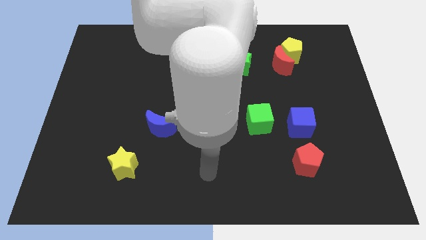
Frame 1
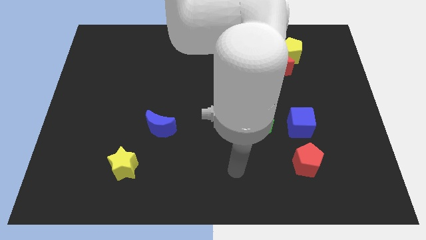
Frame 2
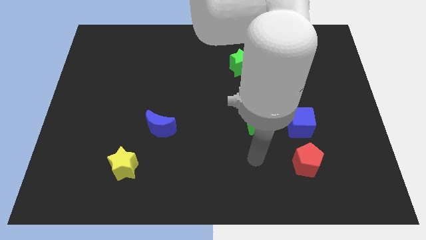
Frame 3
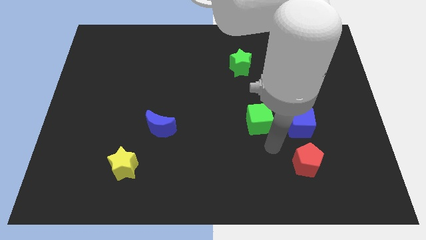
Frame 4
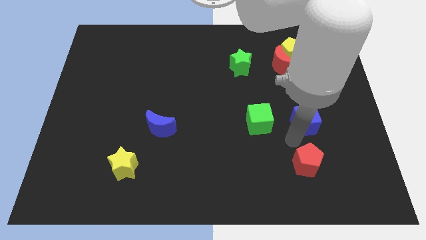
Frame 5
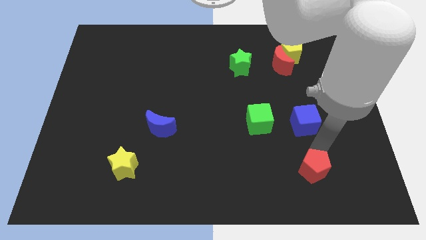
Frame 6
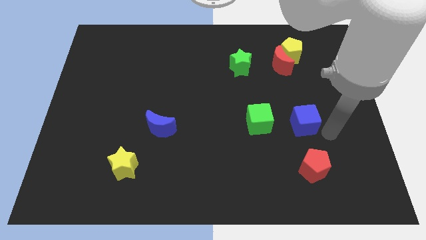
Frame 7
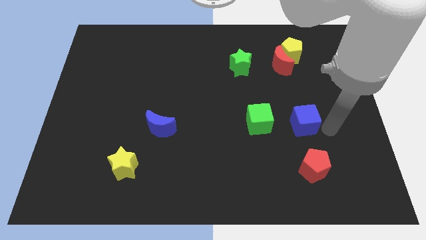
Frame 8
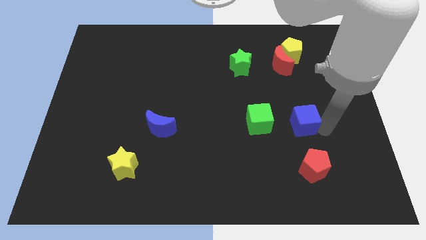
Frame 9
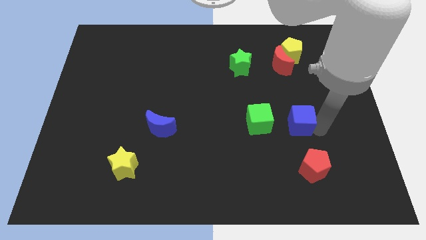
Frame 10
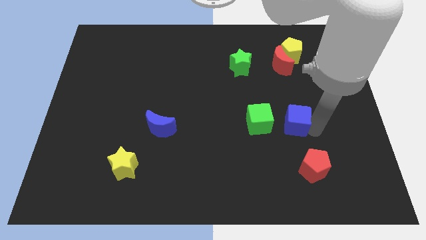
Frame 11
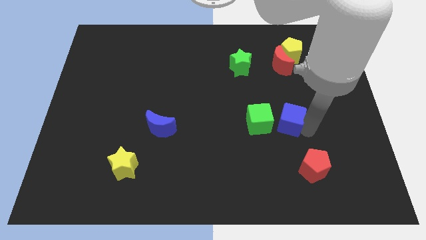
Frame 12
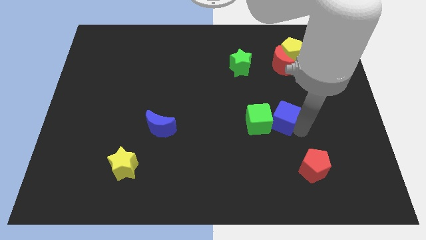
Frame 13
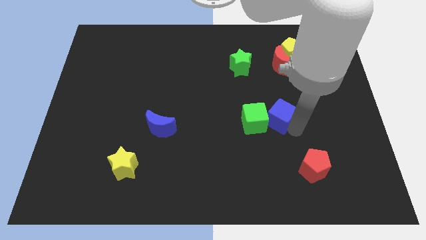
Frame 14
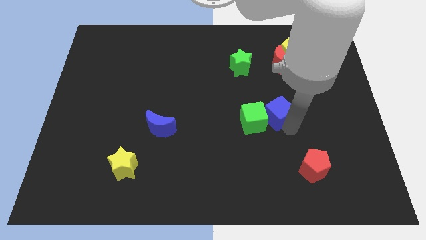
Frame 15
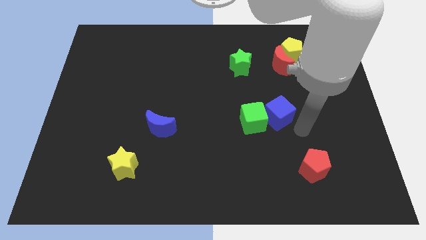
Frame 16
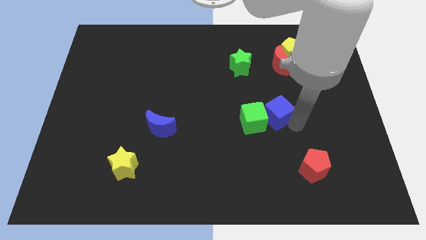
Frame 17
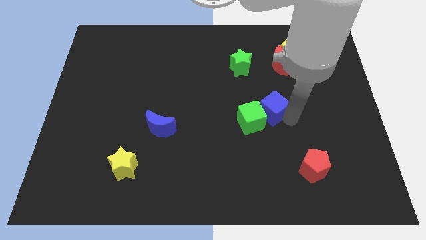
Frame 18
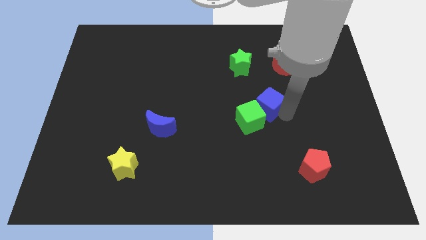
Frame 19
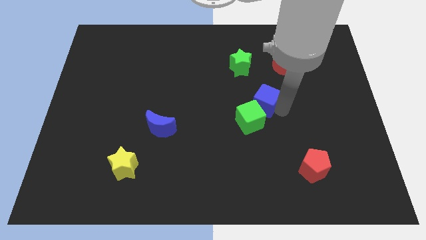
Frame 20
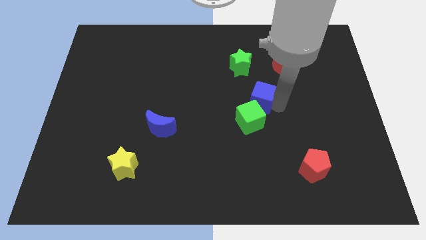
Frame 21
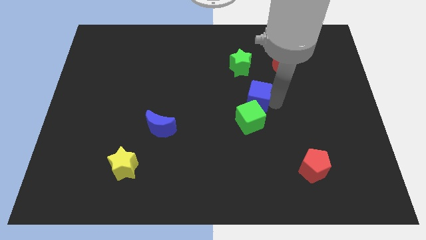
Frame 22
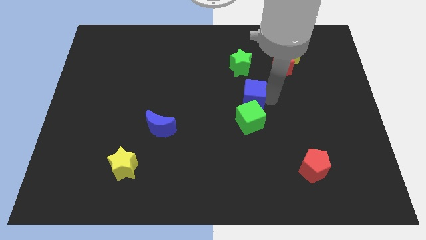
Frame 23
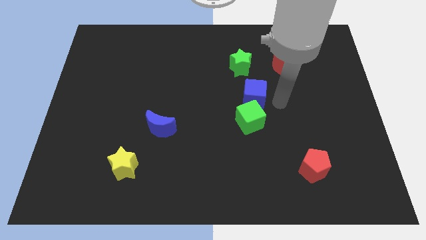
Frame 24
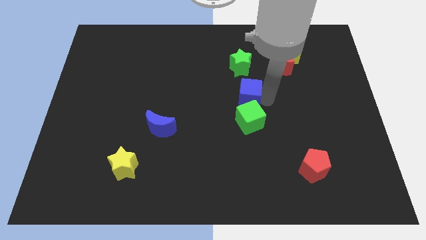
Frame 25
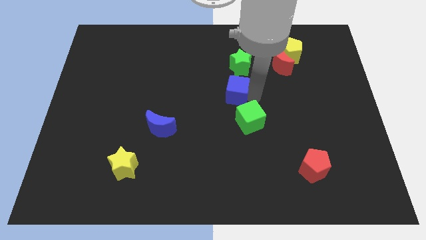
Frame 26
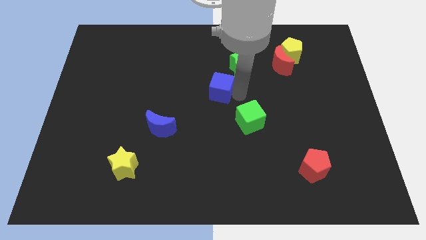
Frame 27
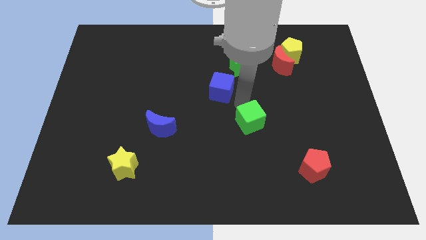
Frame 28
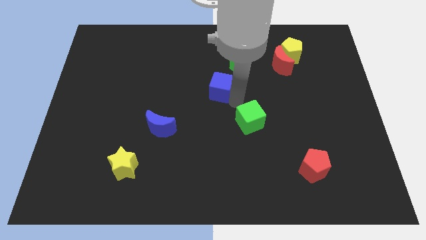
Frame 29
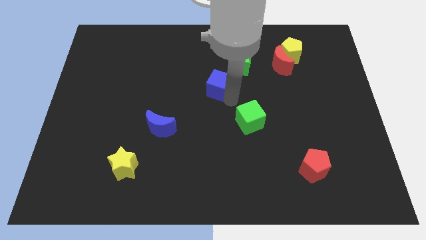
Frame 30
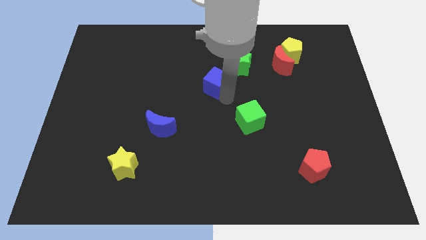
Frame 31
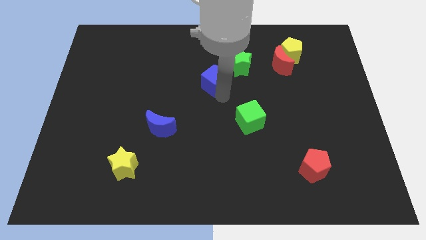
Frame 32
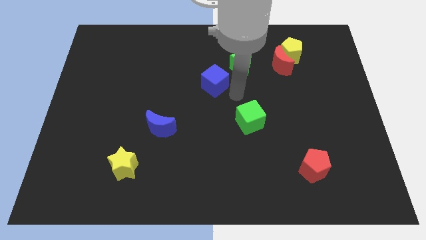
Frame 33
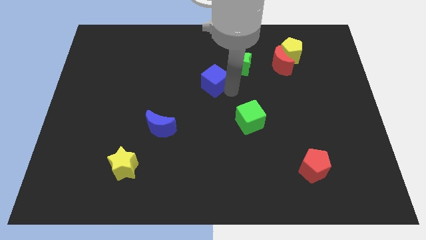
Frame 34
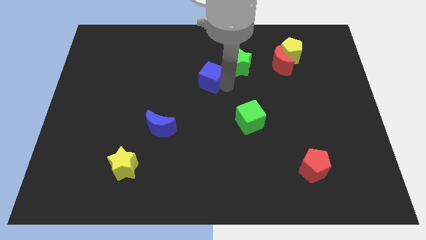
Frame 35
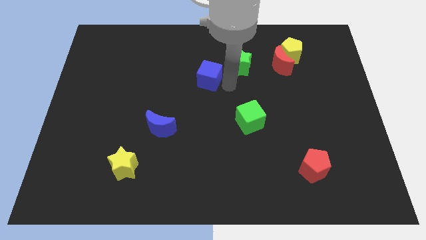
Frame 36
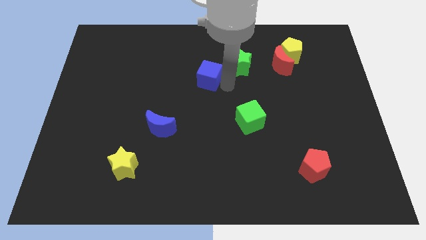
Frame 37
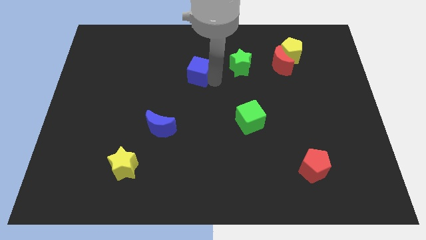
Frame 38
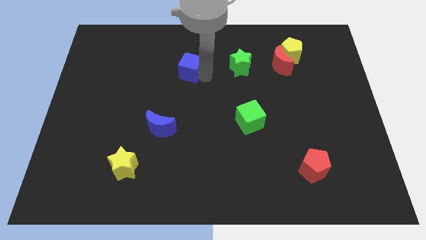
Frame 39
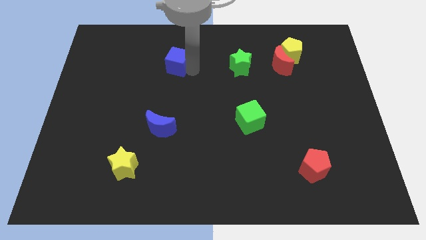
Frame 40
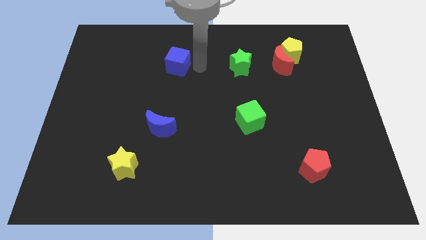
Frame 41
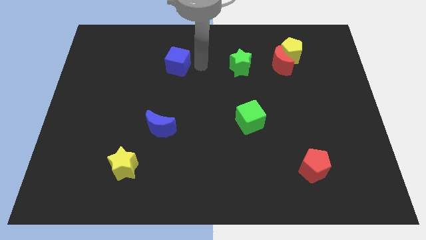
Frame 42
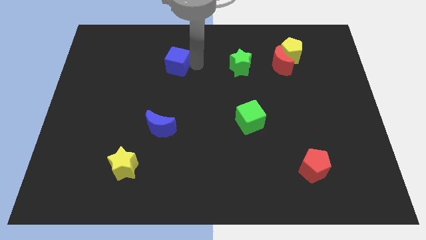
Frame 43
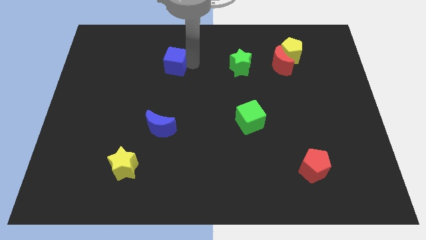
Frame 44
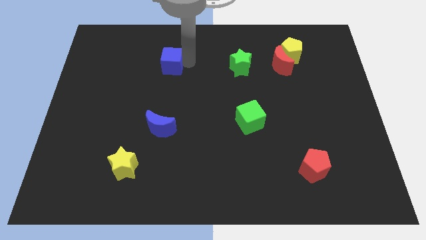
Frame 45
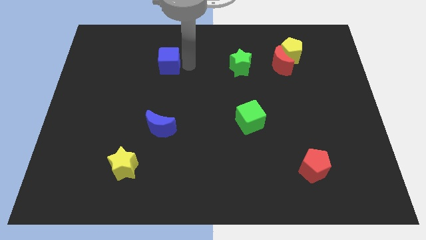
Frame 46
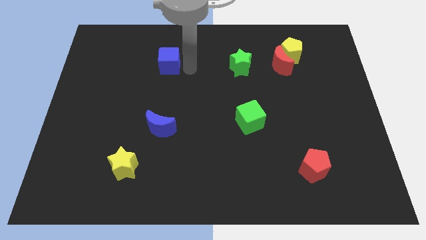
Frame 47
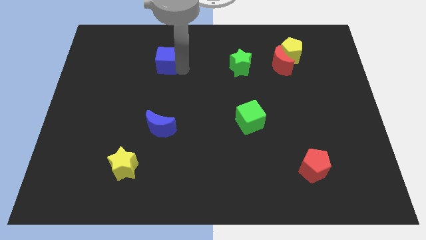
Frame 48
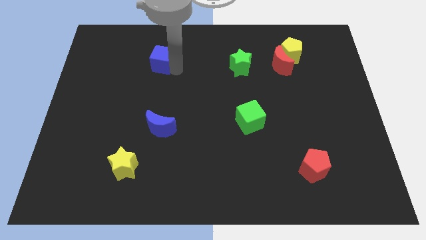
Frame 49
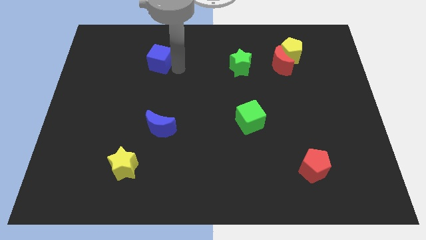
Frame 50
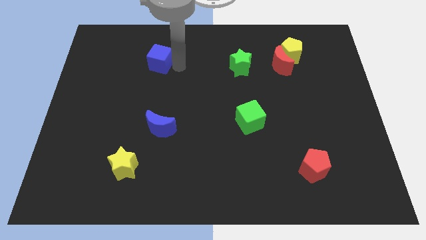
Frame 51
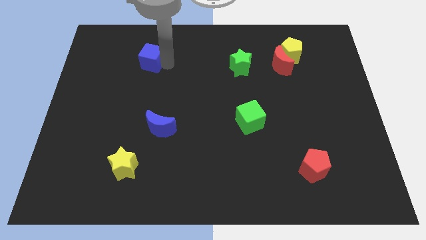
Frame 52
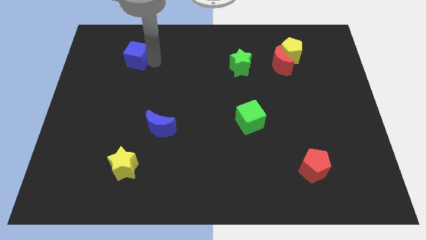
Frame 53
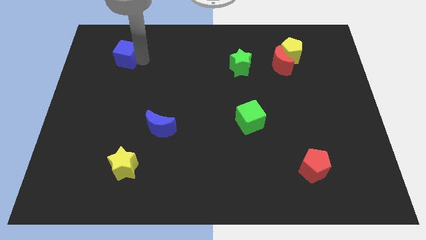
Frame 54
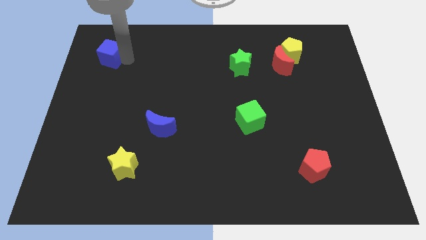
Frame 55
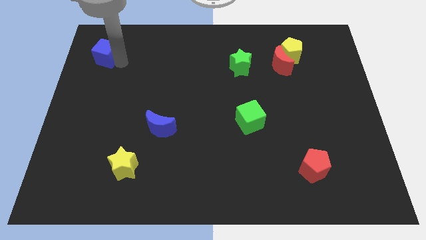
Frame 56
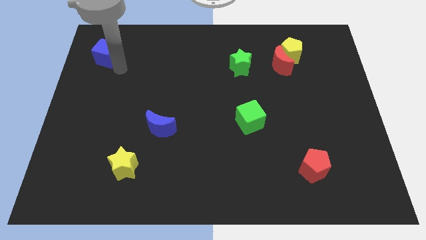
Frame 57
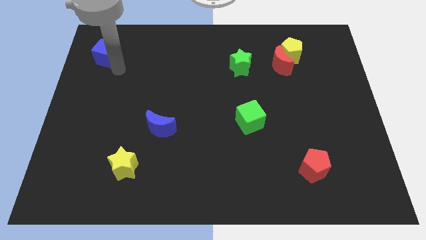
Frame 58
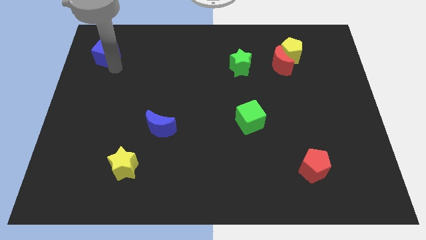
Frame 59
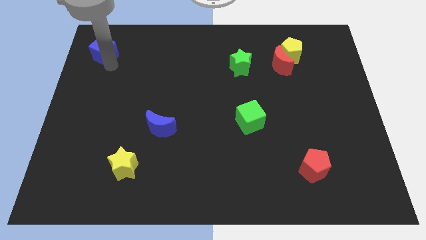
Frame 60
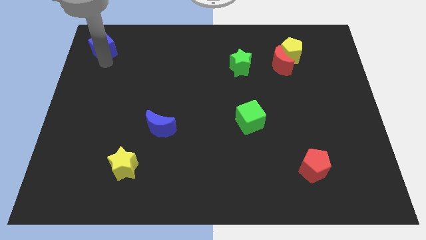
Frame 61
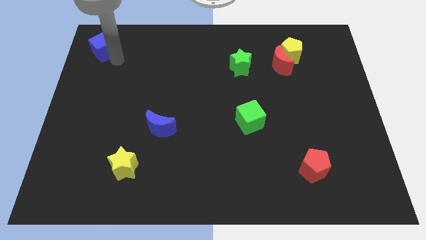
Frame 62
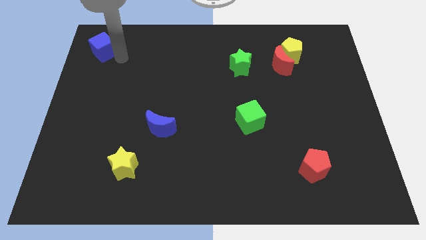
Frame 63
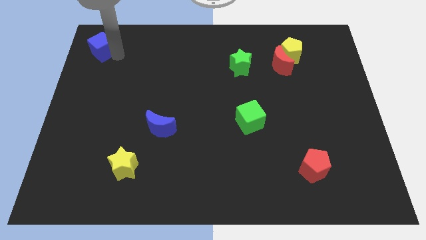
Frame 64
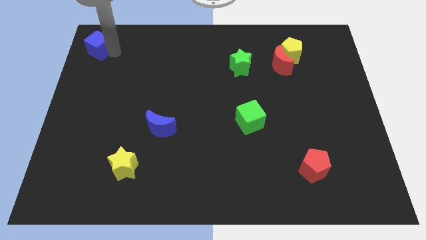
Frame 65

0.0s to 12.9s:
move the blue cube to the upper left corner
